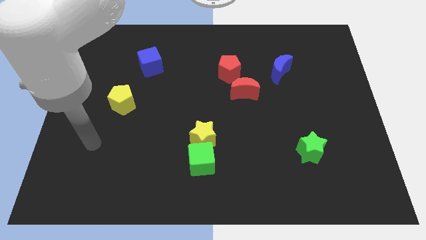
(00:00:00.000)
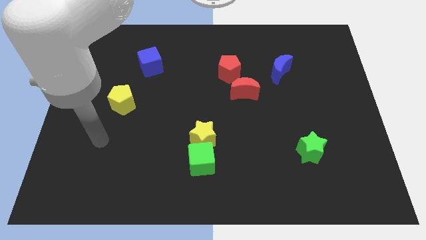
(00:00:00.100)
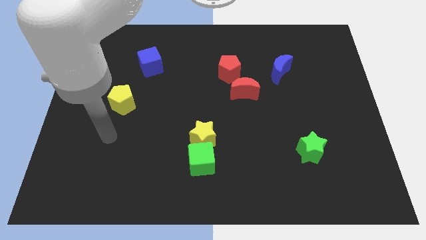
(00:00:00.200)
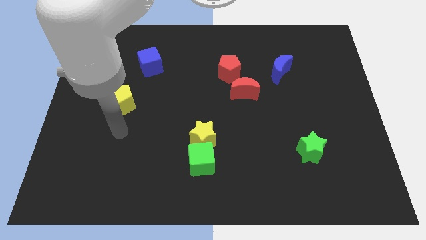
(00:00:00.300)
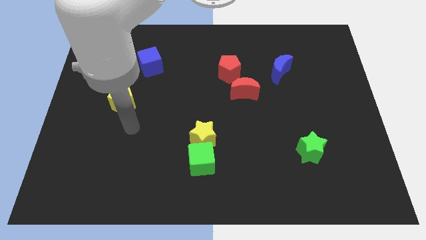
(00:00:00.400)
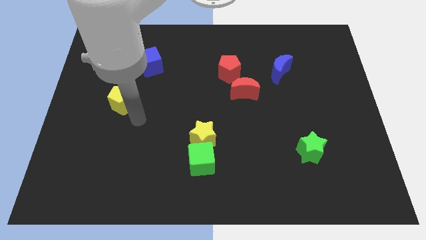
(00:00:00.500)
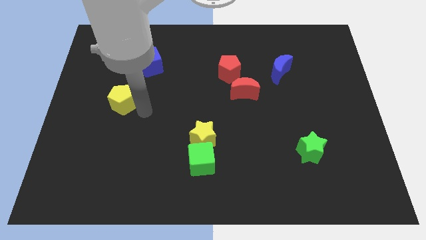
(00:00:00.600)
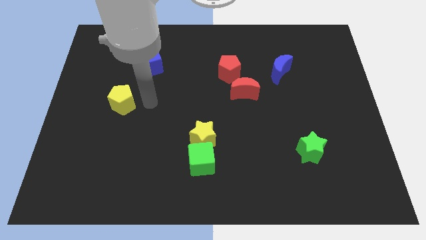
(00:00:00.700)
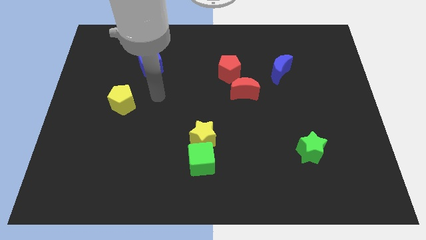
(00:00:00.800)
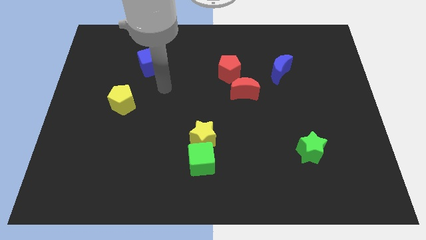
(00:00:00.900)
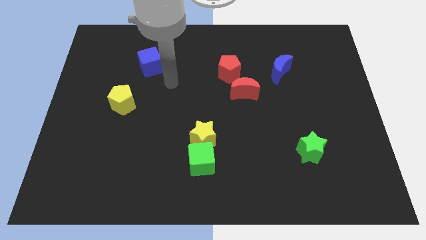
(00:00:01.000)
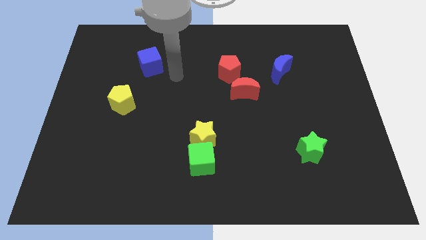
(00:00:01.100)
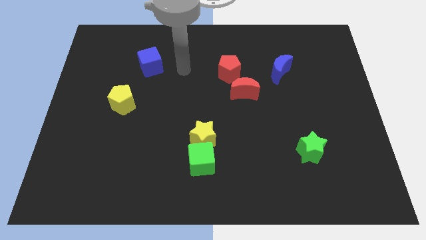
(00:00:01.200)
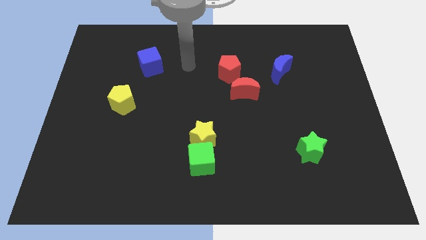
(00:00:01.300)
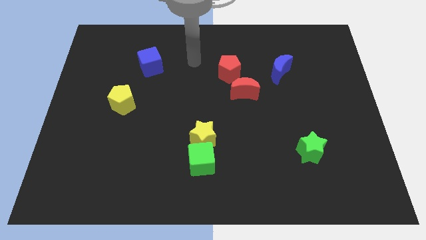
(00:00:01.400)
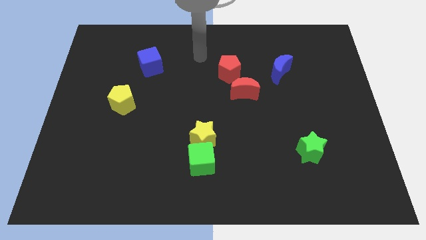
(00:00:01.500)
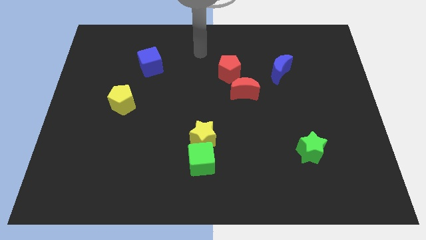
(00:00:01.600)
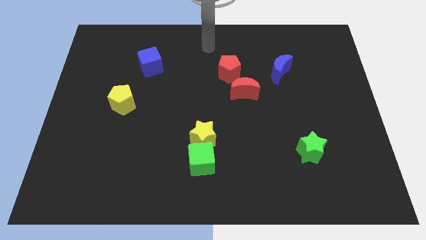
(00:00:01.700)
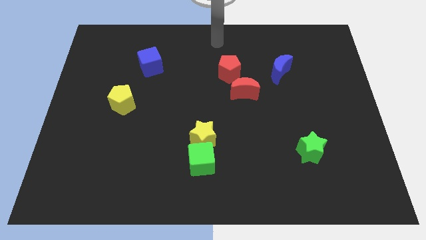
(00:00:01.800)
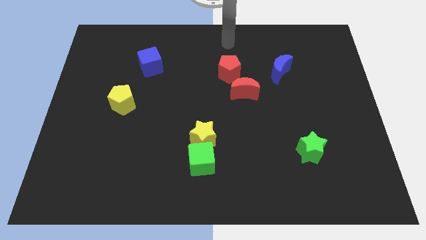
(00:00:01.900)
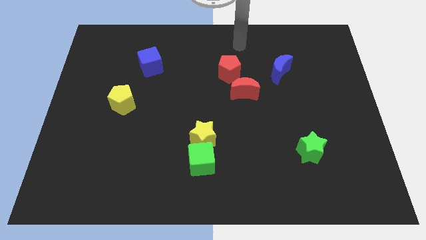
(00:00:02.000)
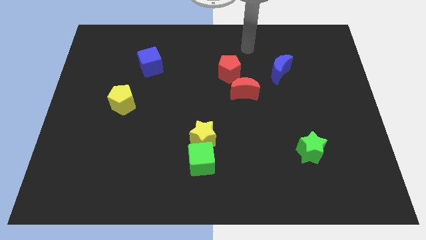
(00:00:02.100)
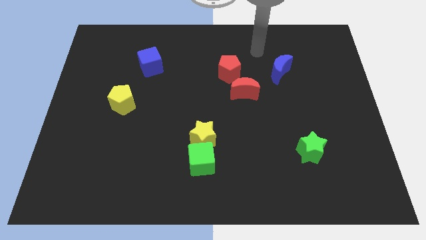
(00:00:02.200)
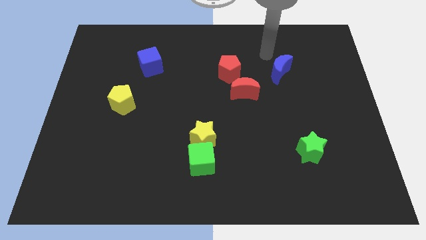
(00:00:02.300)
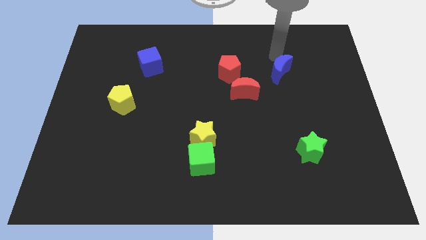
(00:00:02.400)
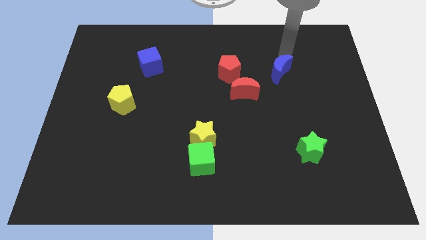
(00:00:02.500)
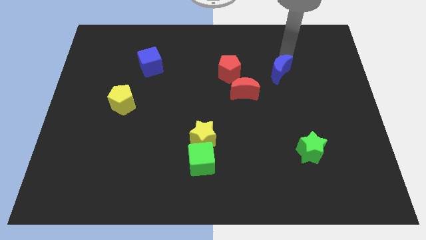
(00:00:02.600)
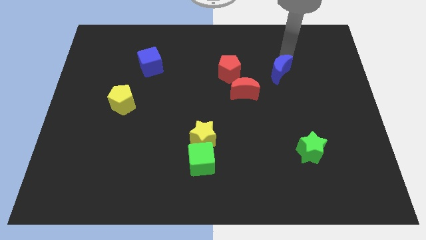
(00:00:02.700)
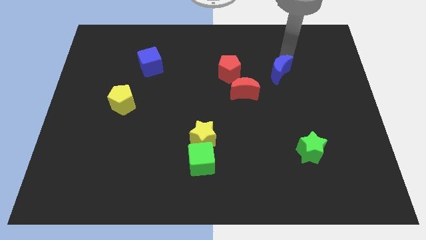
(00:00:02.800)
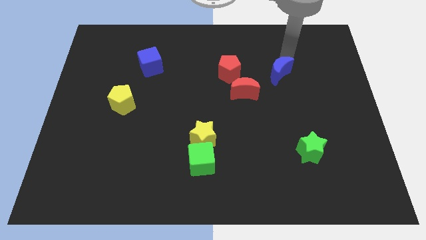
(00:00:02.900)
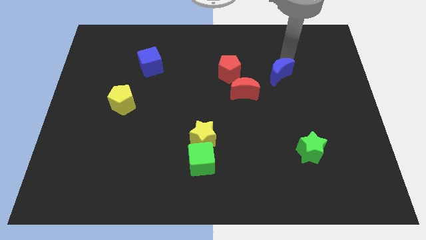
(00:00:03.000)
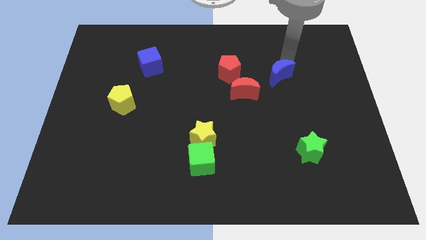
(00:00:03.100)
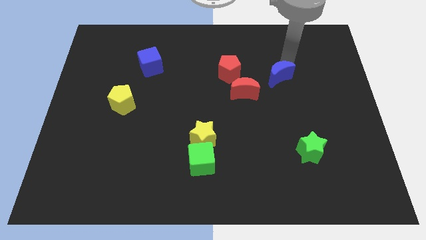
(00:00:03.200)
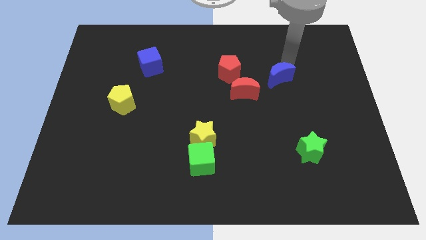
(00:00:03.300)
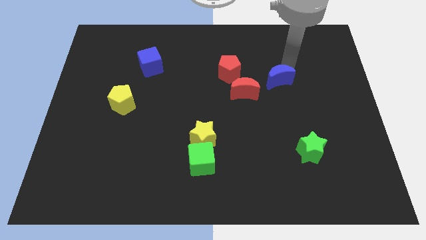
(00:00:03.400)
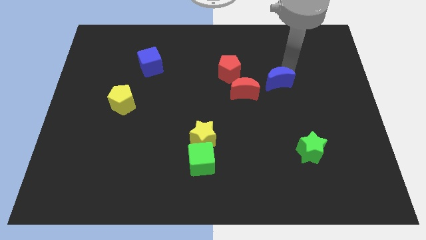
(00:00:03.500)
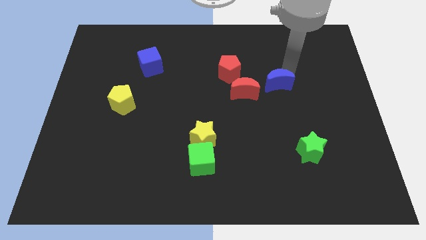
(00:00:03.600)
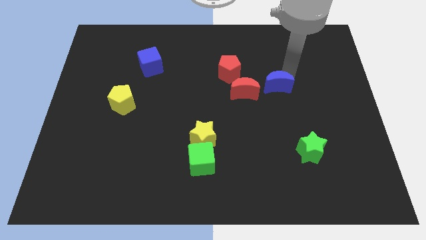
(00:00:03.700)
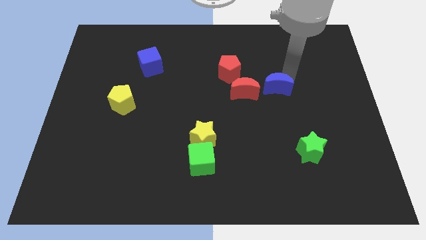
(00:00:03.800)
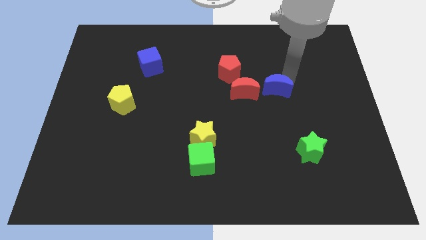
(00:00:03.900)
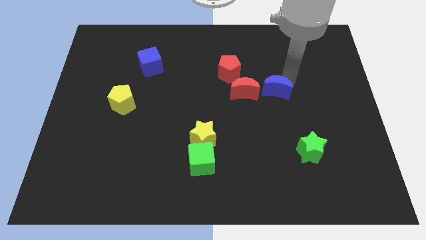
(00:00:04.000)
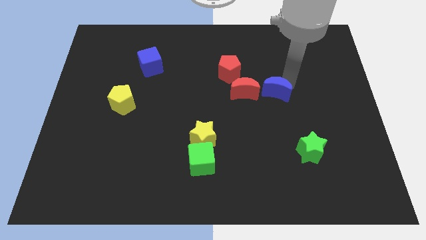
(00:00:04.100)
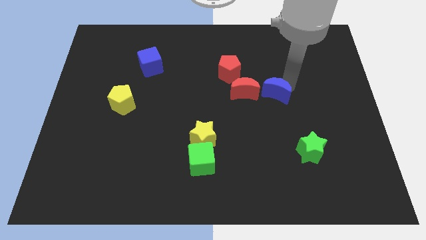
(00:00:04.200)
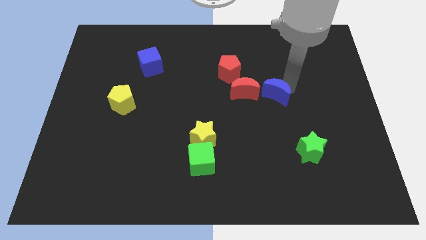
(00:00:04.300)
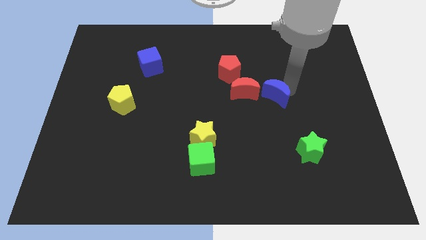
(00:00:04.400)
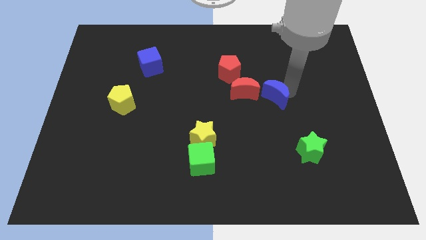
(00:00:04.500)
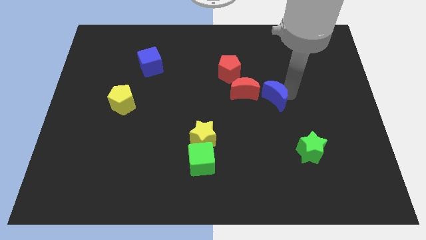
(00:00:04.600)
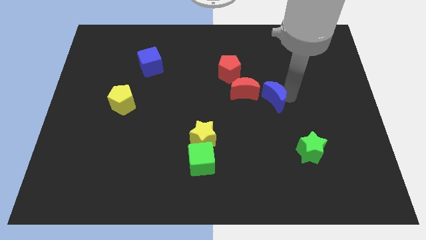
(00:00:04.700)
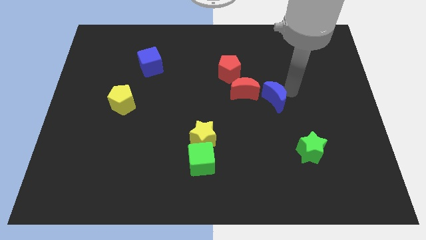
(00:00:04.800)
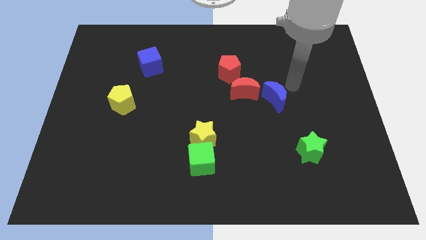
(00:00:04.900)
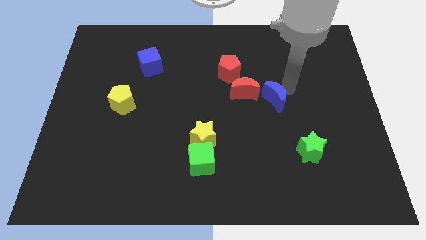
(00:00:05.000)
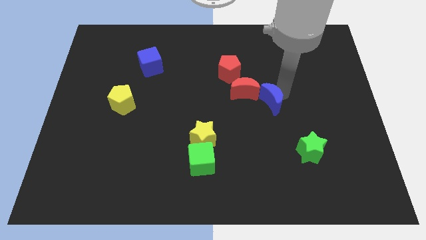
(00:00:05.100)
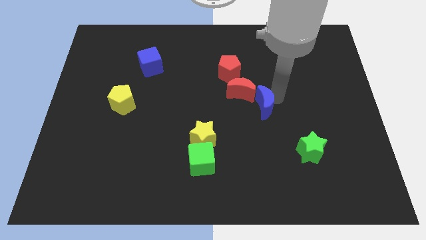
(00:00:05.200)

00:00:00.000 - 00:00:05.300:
put the blue moon to the middle

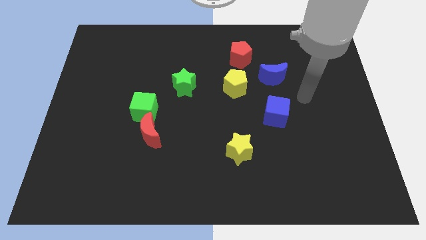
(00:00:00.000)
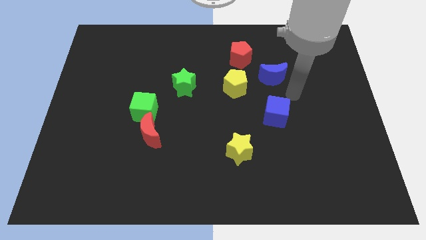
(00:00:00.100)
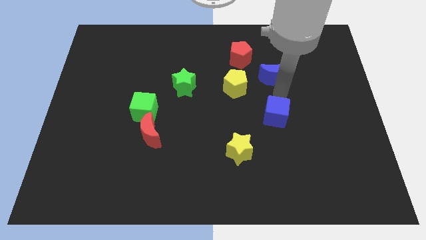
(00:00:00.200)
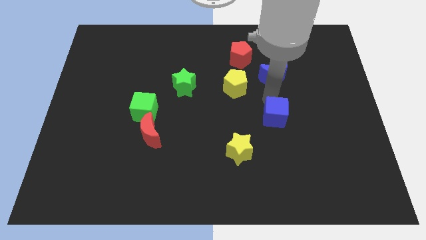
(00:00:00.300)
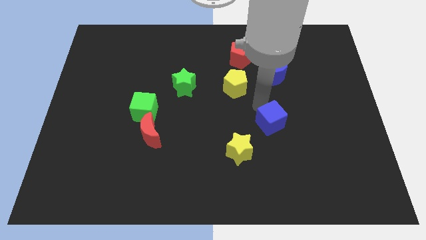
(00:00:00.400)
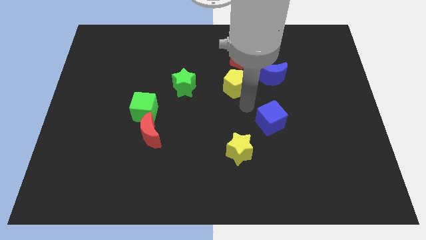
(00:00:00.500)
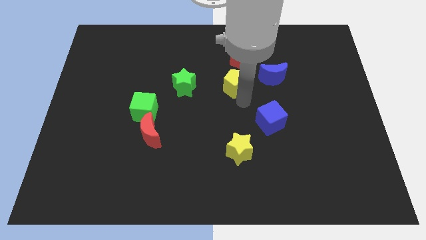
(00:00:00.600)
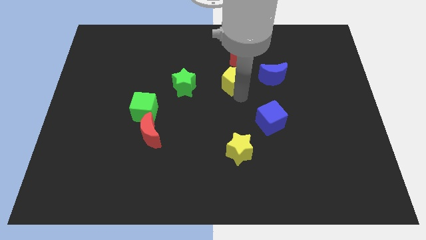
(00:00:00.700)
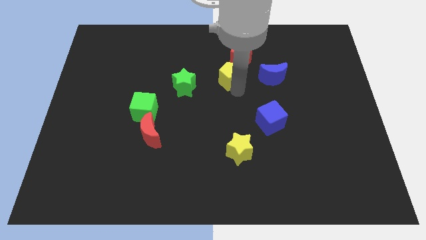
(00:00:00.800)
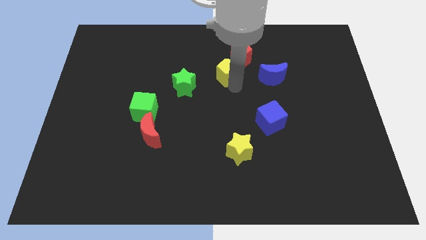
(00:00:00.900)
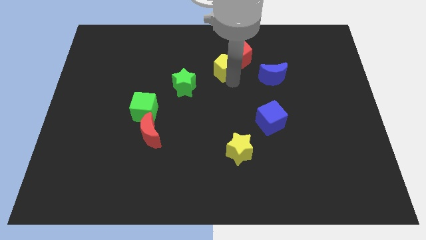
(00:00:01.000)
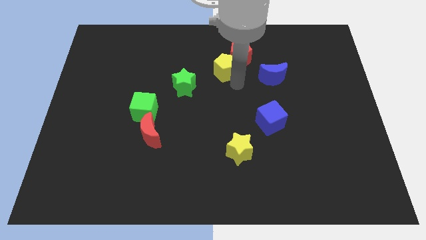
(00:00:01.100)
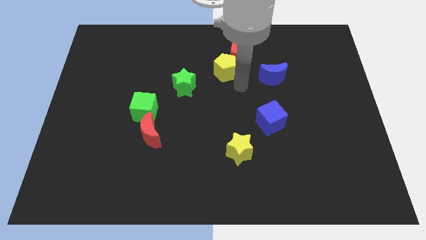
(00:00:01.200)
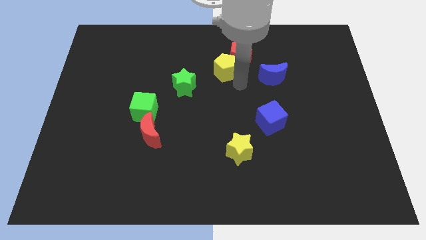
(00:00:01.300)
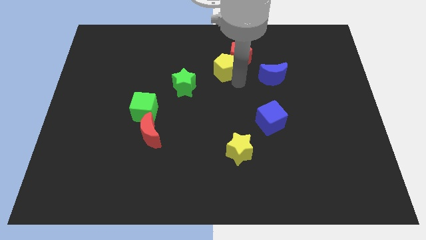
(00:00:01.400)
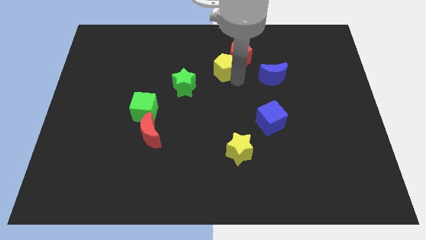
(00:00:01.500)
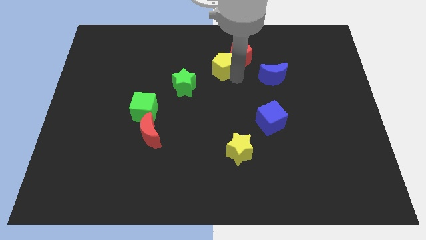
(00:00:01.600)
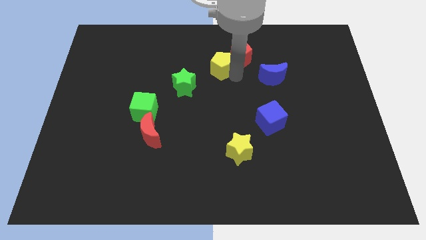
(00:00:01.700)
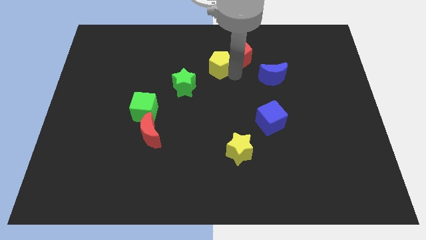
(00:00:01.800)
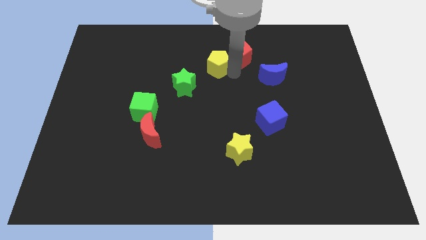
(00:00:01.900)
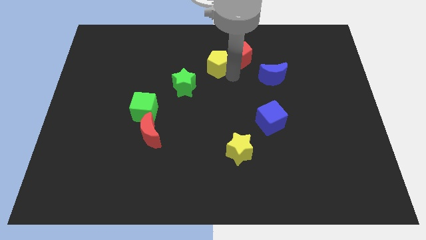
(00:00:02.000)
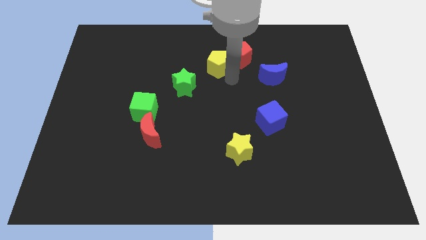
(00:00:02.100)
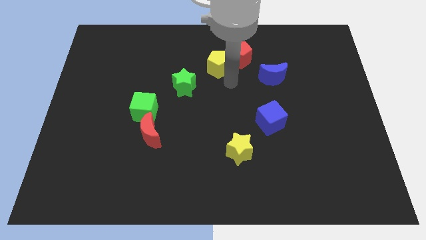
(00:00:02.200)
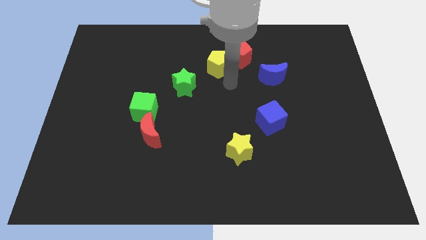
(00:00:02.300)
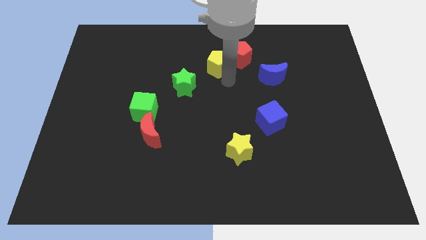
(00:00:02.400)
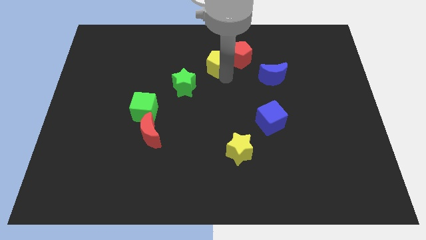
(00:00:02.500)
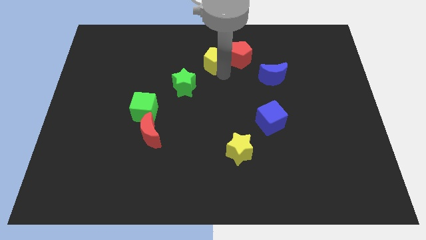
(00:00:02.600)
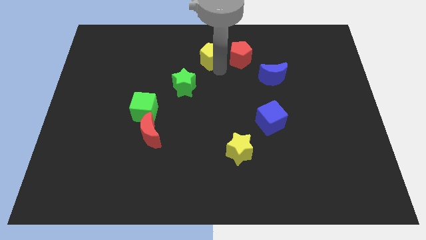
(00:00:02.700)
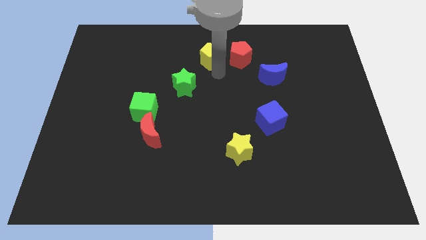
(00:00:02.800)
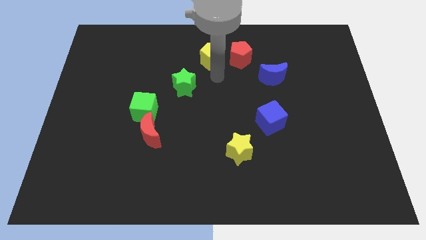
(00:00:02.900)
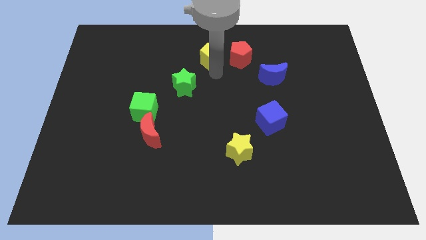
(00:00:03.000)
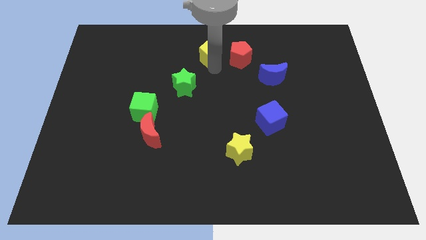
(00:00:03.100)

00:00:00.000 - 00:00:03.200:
slide the yellow pentagon to the top side
